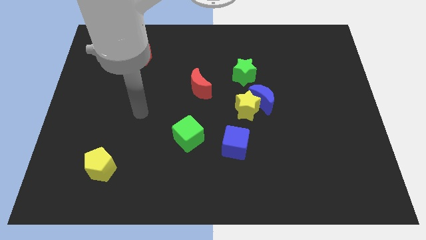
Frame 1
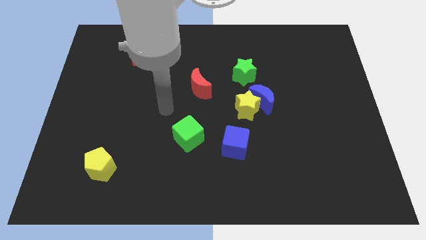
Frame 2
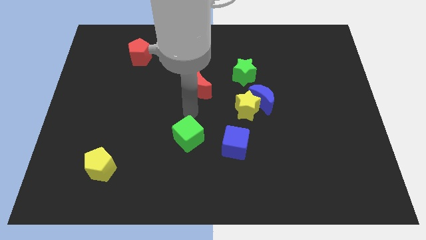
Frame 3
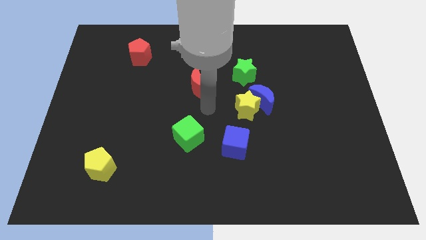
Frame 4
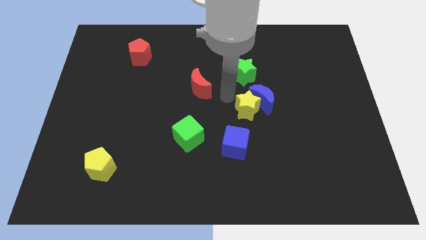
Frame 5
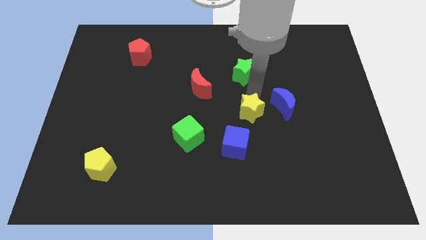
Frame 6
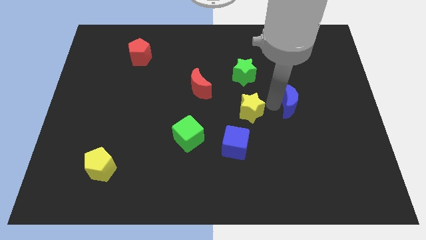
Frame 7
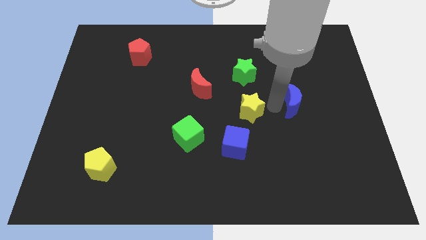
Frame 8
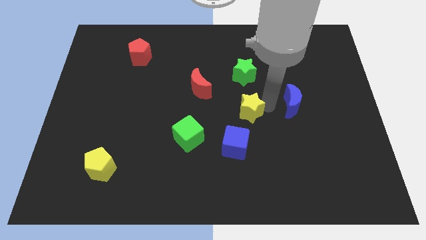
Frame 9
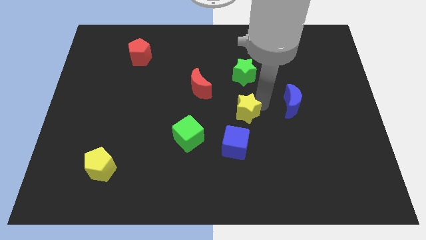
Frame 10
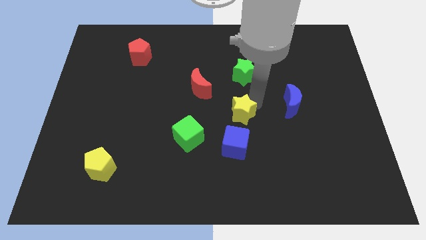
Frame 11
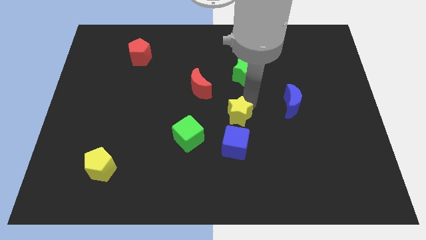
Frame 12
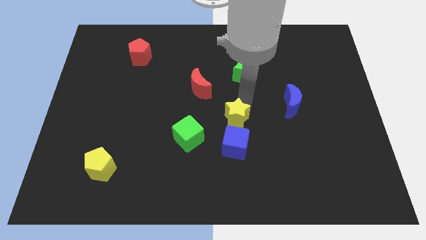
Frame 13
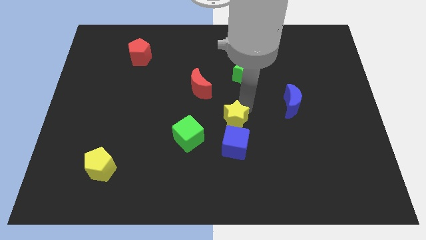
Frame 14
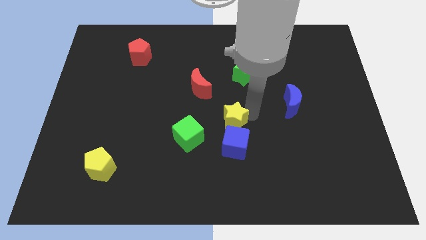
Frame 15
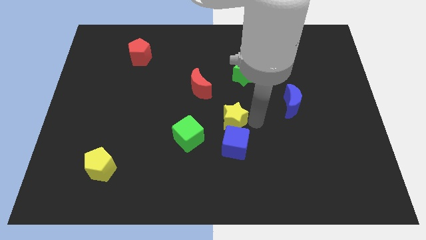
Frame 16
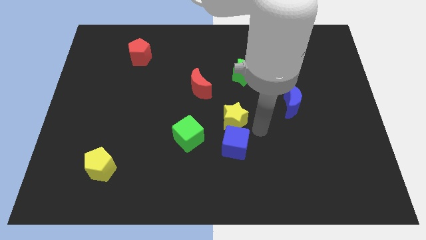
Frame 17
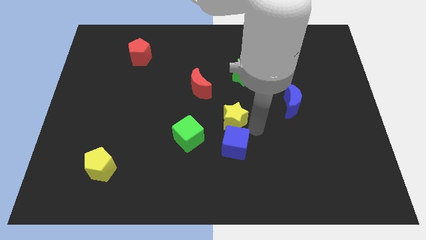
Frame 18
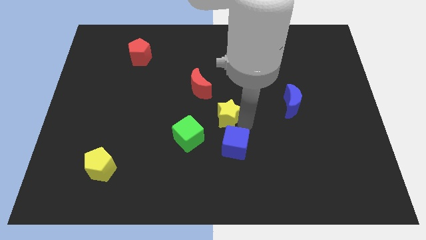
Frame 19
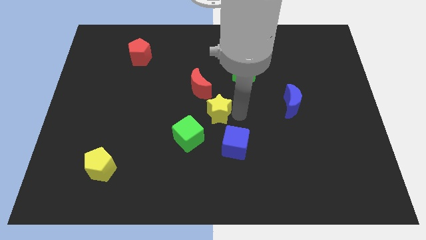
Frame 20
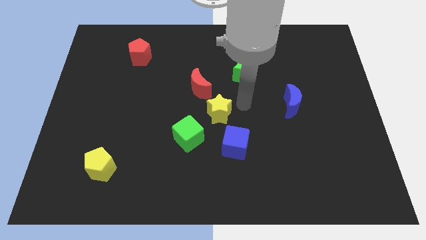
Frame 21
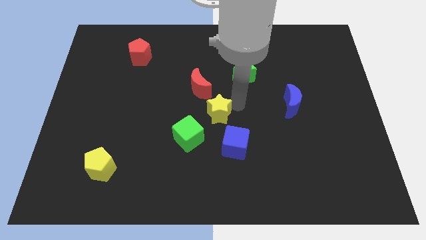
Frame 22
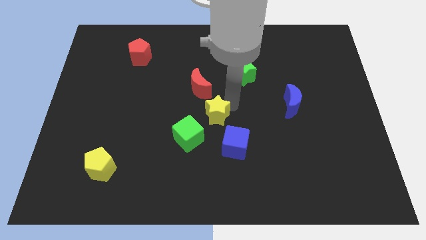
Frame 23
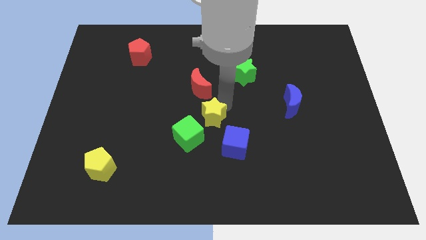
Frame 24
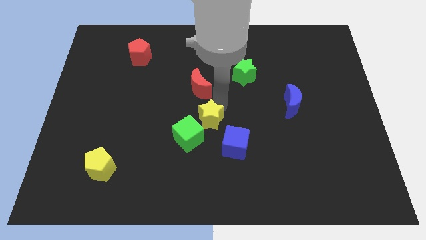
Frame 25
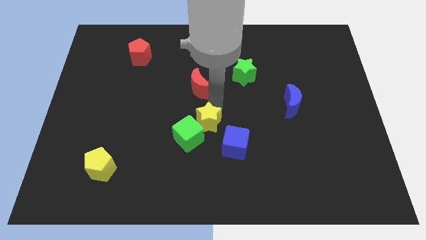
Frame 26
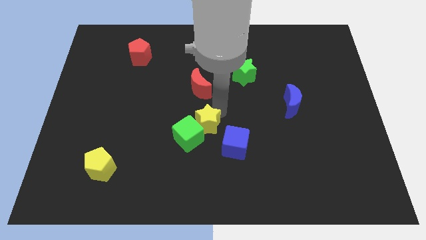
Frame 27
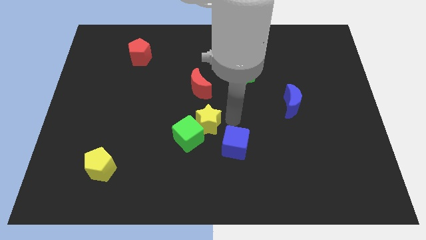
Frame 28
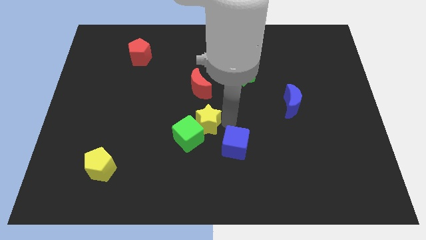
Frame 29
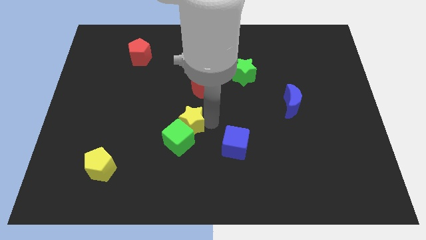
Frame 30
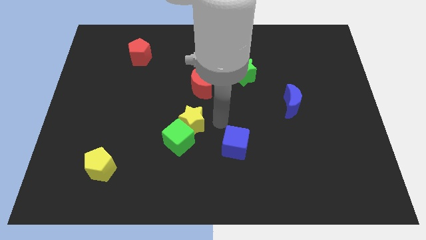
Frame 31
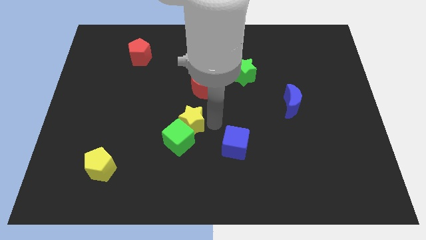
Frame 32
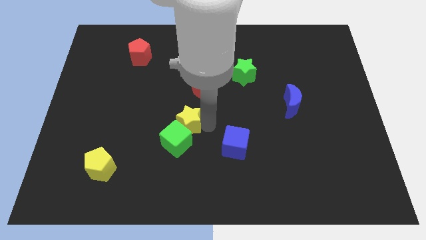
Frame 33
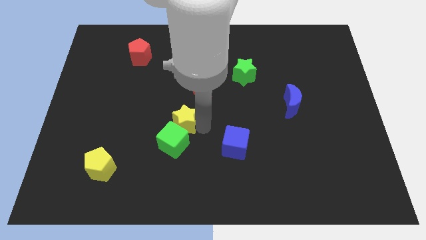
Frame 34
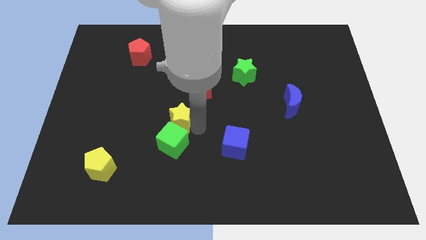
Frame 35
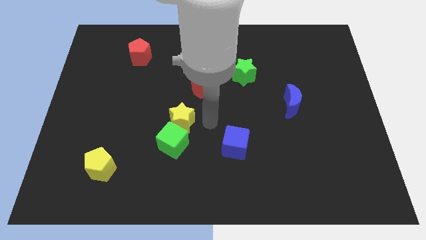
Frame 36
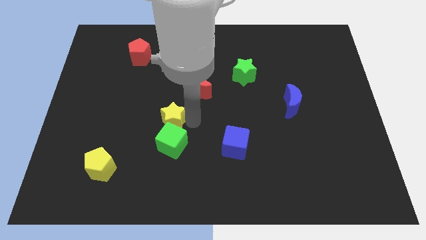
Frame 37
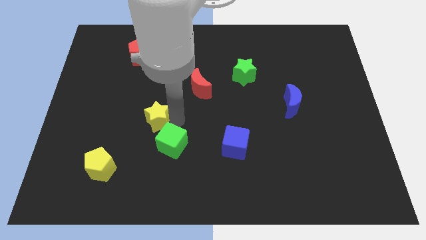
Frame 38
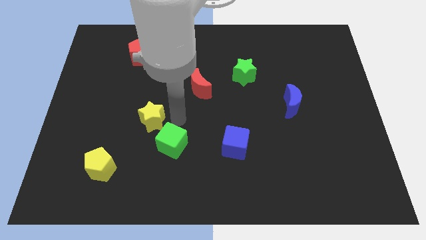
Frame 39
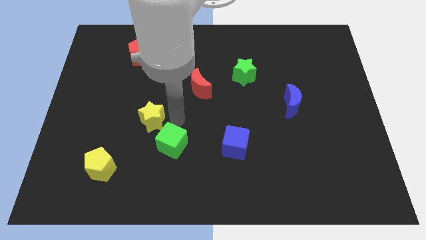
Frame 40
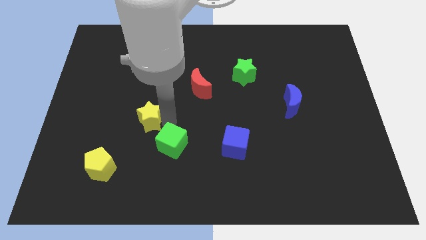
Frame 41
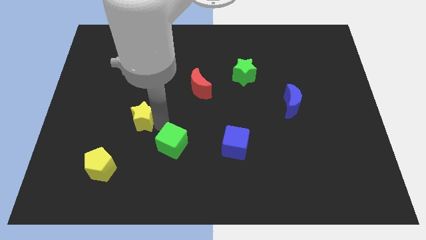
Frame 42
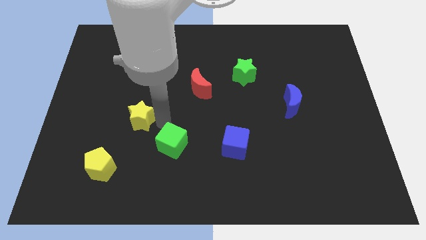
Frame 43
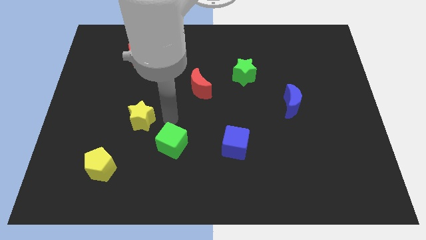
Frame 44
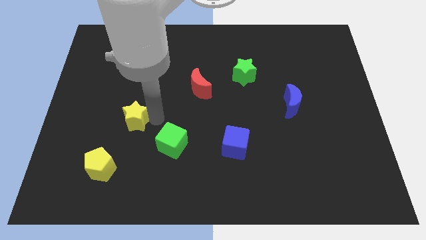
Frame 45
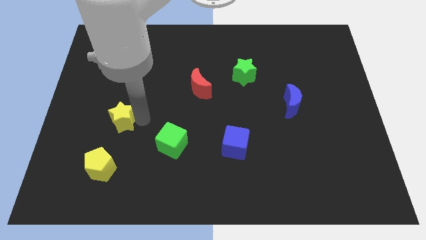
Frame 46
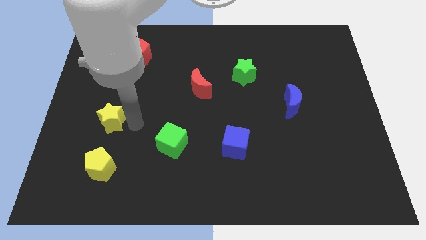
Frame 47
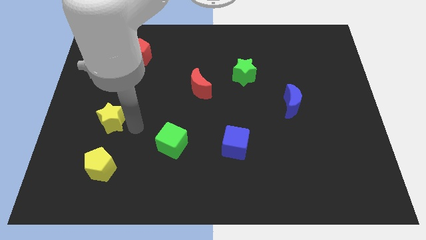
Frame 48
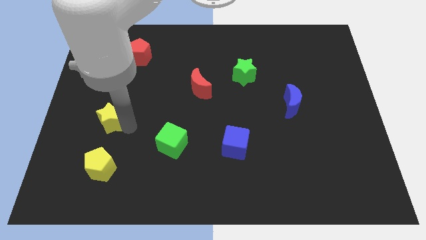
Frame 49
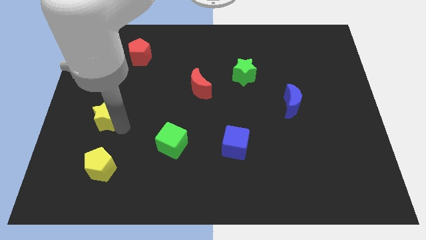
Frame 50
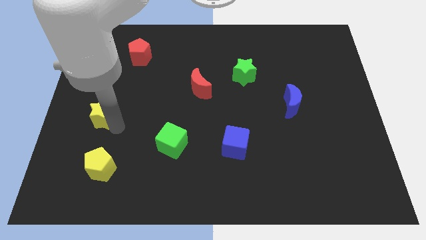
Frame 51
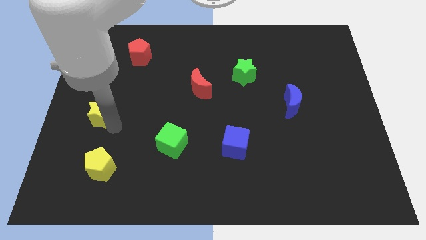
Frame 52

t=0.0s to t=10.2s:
move the yellow star to the center left

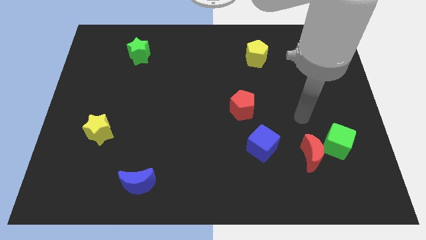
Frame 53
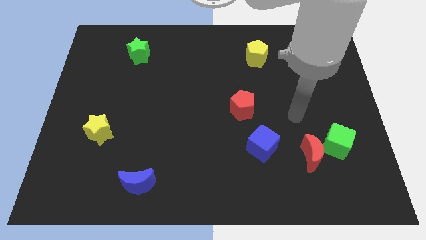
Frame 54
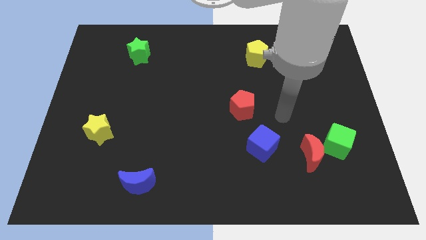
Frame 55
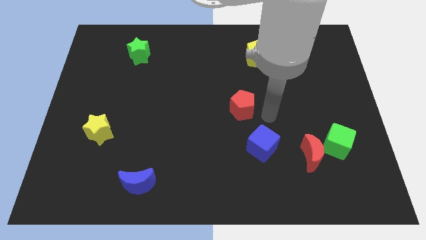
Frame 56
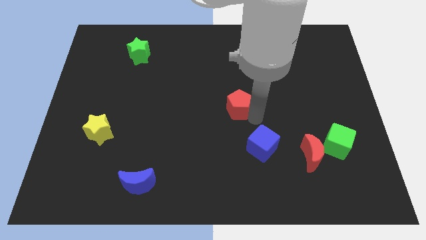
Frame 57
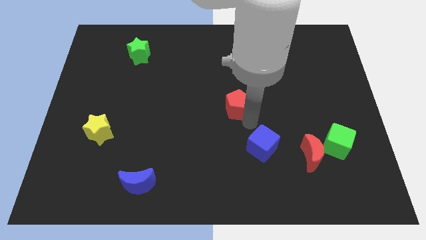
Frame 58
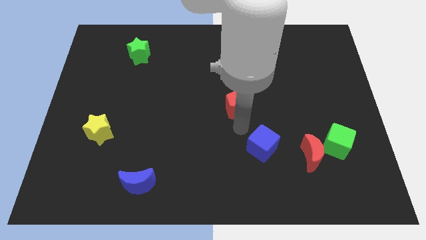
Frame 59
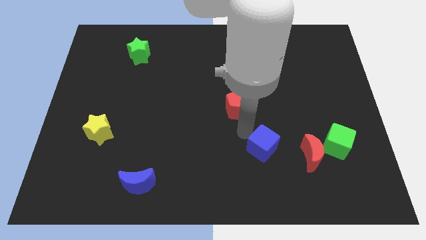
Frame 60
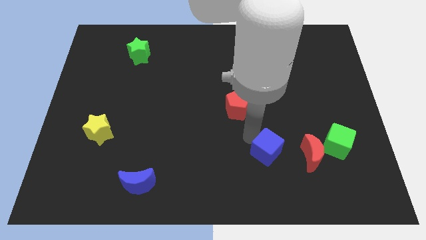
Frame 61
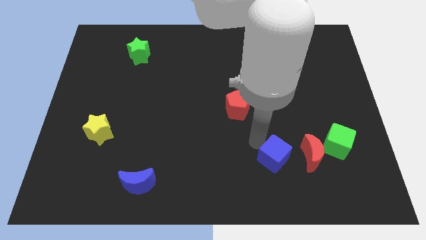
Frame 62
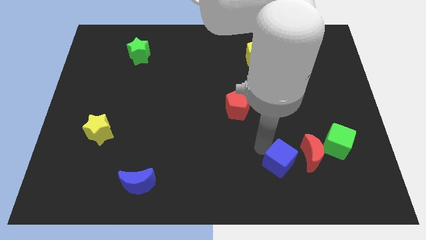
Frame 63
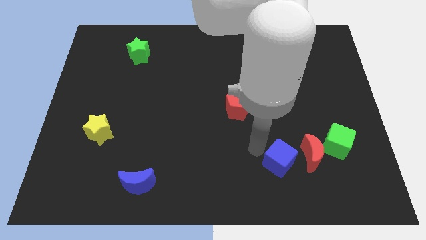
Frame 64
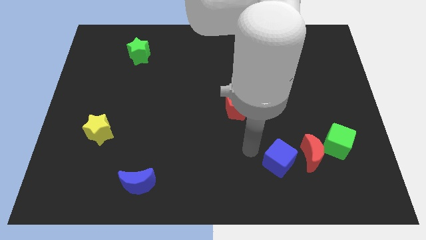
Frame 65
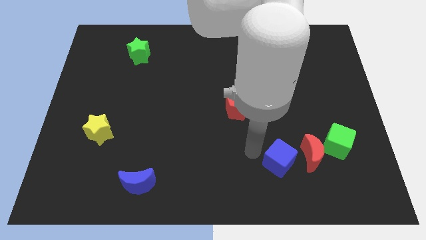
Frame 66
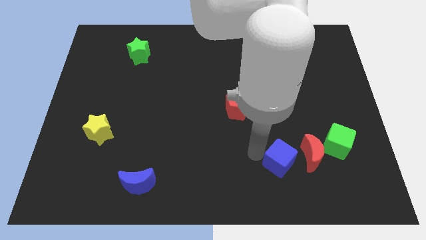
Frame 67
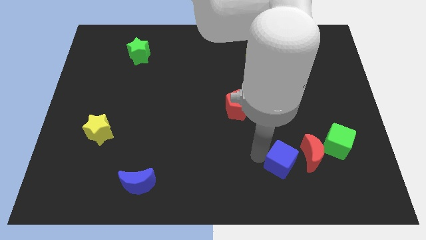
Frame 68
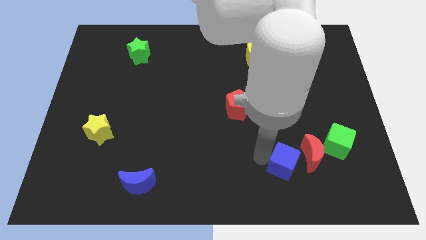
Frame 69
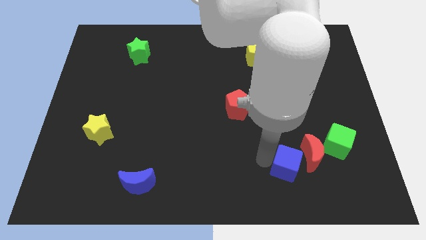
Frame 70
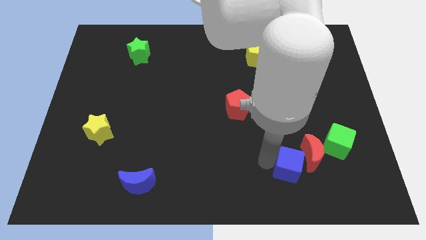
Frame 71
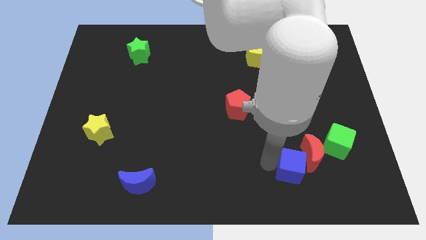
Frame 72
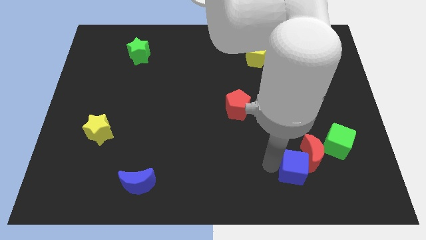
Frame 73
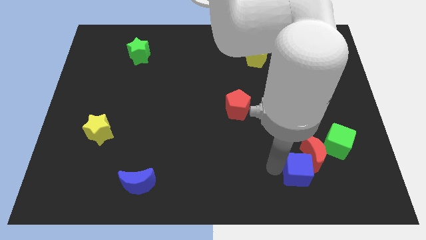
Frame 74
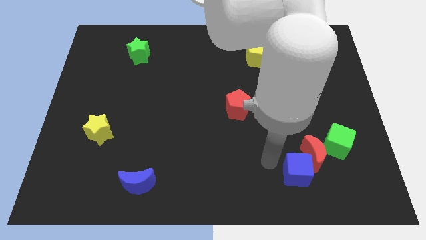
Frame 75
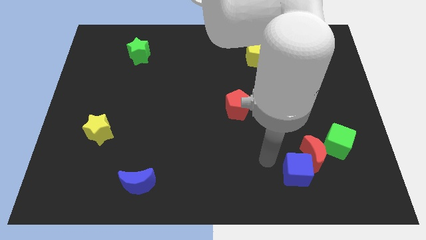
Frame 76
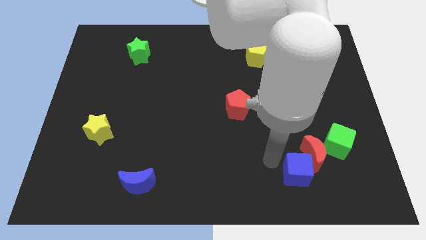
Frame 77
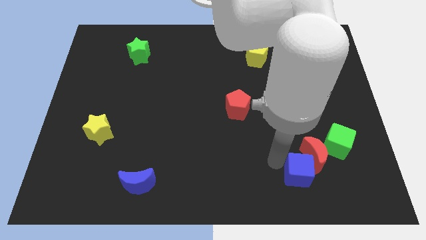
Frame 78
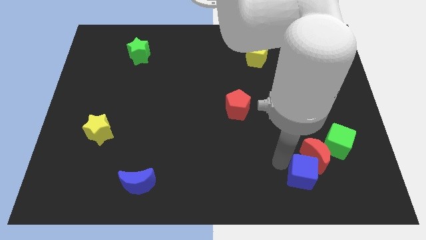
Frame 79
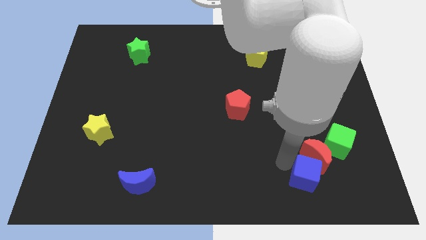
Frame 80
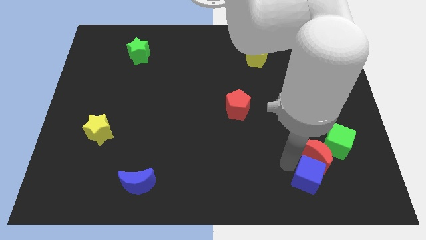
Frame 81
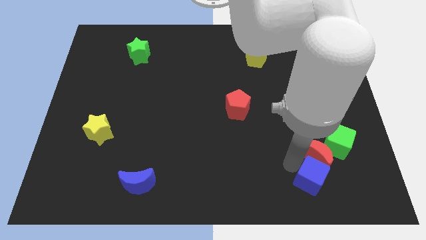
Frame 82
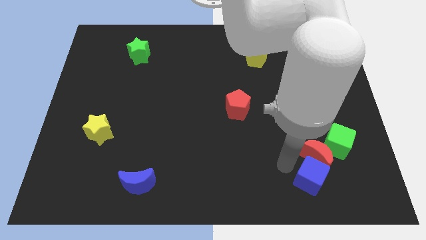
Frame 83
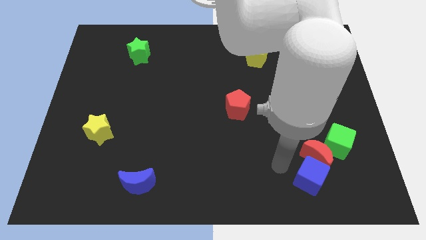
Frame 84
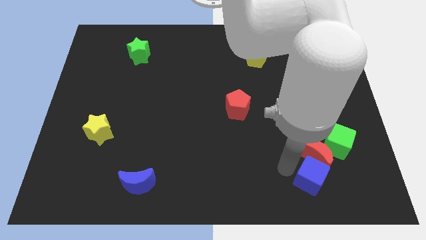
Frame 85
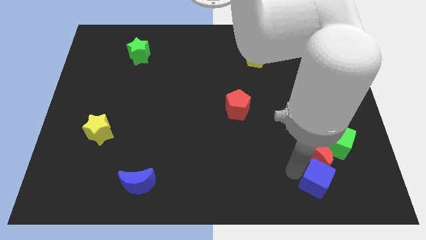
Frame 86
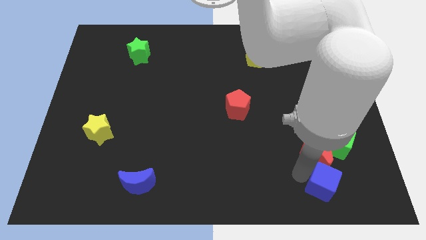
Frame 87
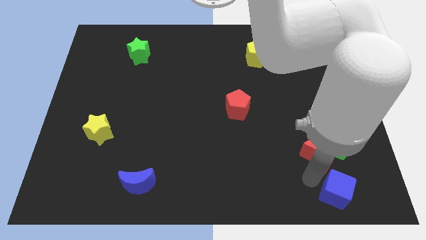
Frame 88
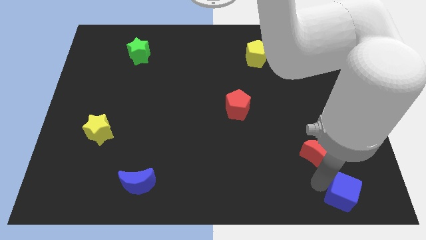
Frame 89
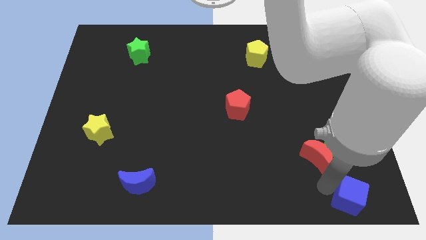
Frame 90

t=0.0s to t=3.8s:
slide the blue cube to the lower right corner
